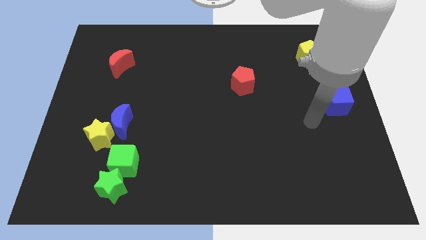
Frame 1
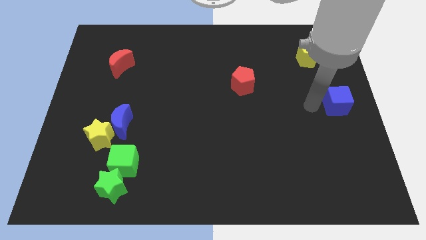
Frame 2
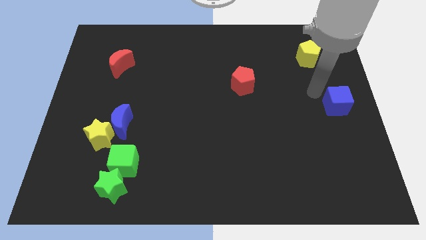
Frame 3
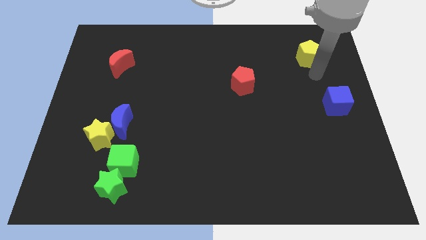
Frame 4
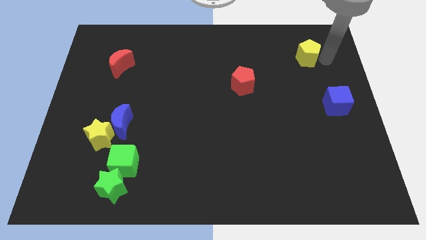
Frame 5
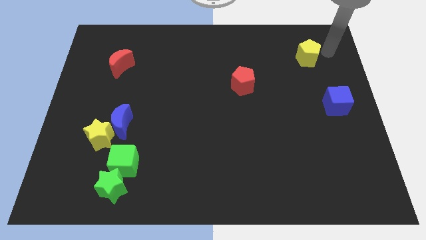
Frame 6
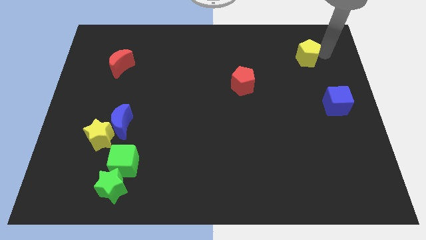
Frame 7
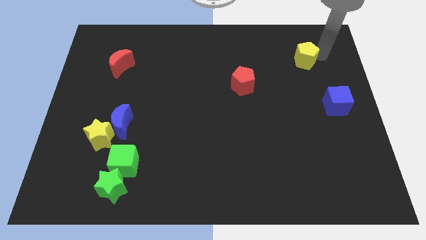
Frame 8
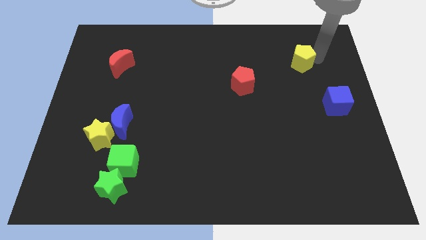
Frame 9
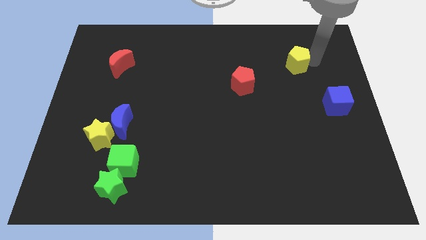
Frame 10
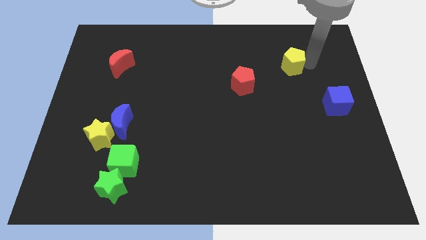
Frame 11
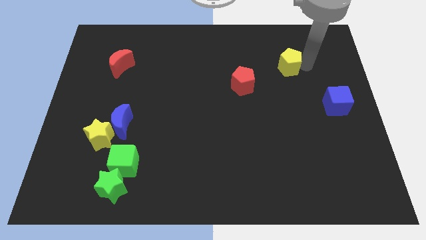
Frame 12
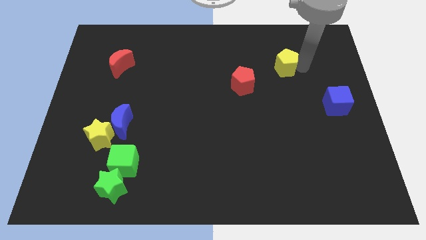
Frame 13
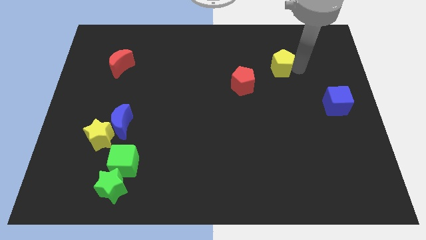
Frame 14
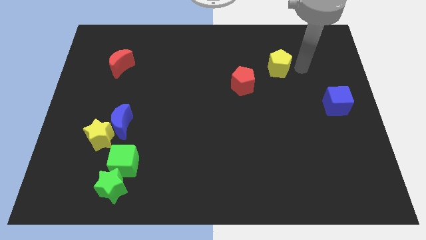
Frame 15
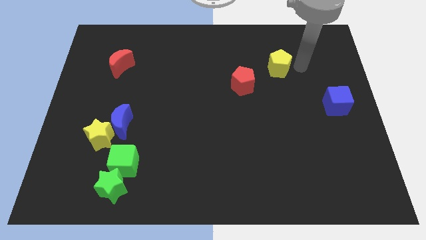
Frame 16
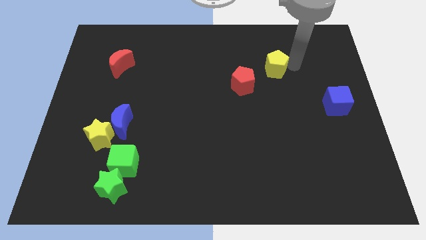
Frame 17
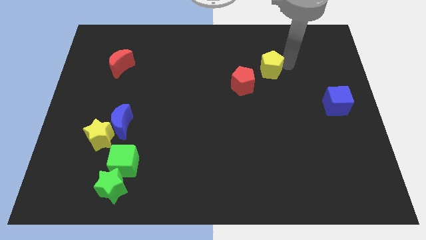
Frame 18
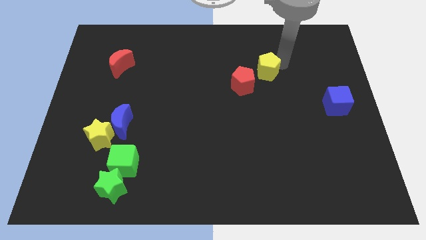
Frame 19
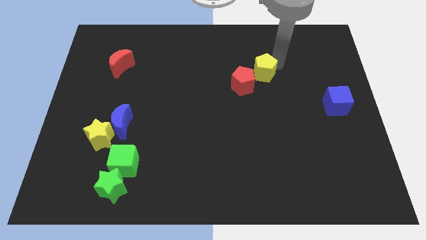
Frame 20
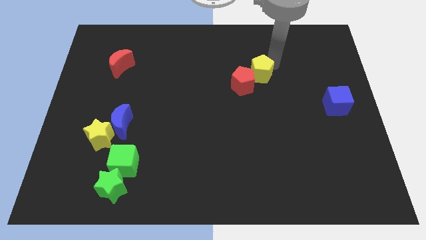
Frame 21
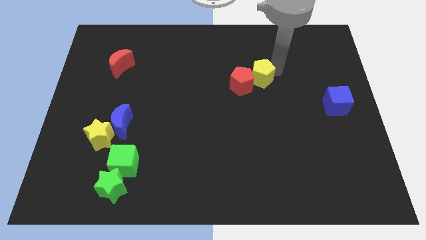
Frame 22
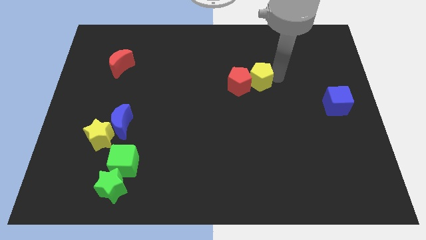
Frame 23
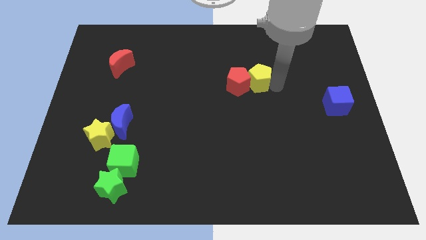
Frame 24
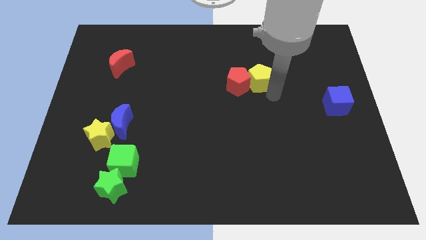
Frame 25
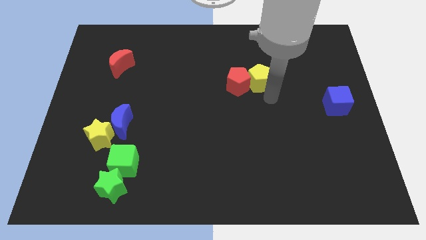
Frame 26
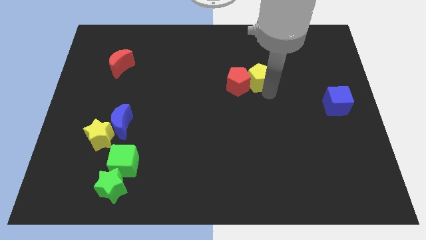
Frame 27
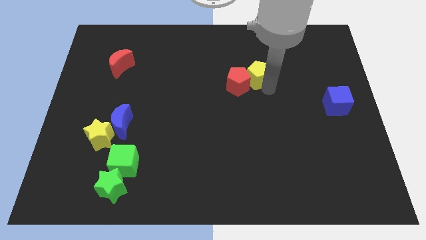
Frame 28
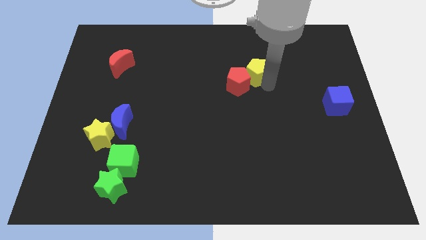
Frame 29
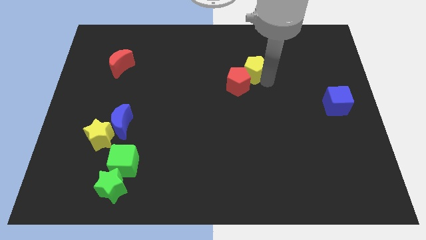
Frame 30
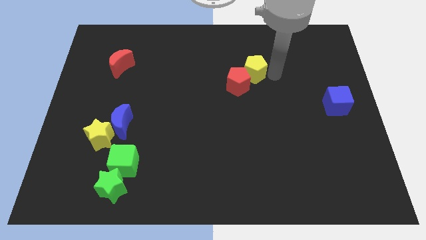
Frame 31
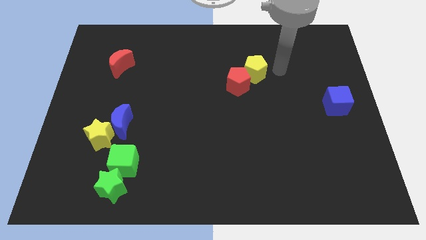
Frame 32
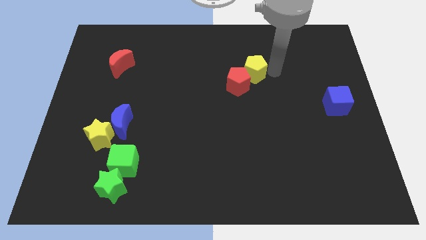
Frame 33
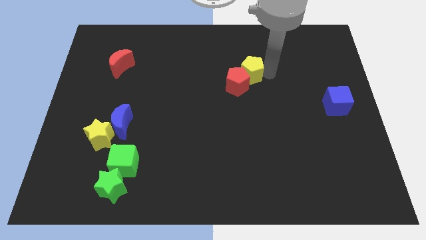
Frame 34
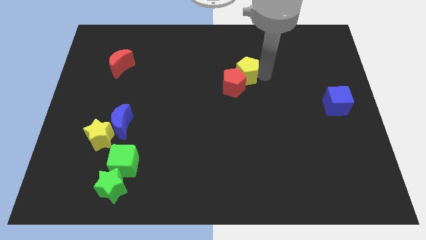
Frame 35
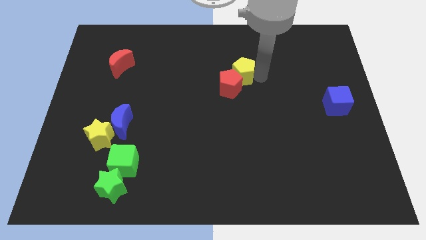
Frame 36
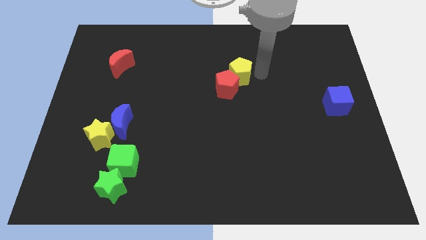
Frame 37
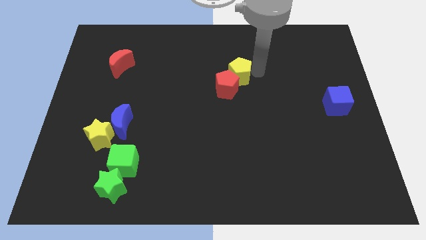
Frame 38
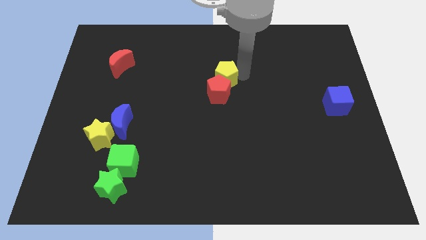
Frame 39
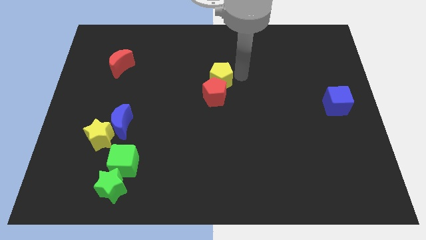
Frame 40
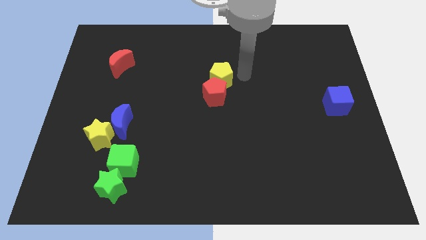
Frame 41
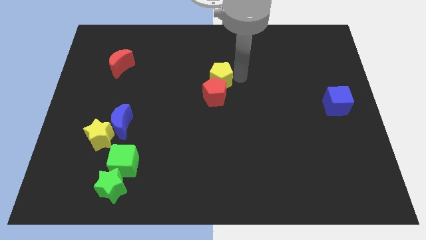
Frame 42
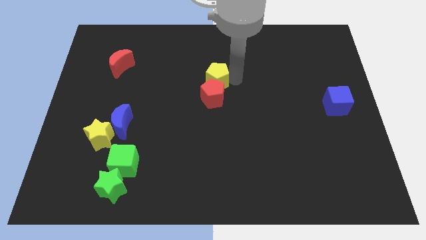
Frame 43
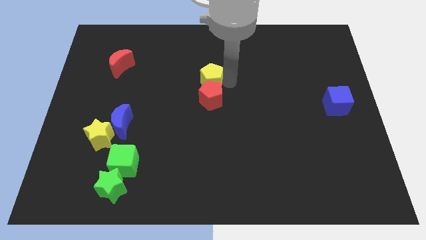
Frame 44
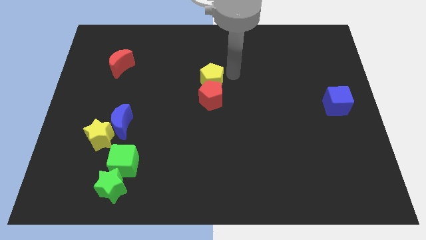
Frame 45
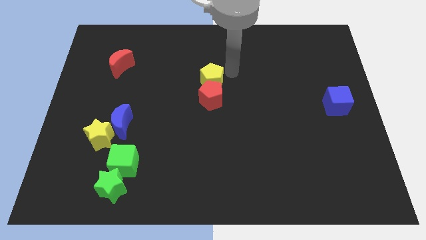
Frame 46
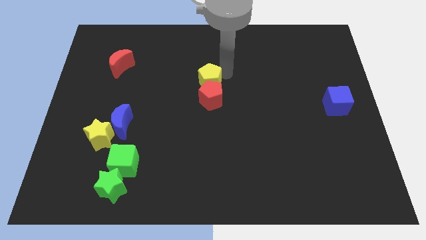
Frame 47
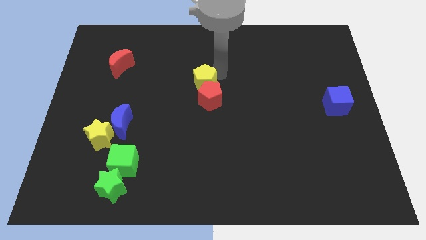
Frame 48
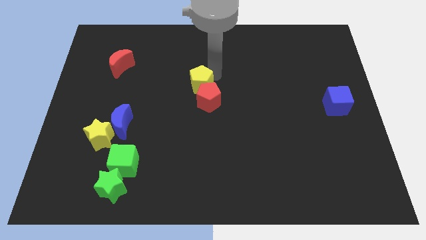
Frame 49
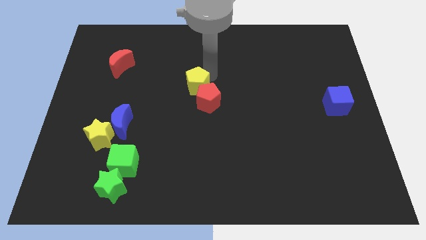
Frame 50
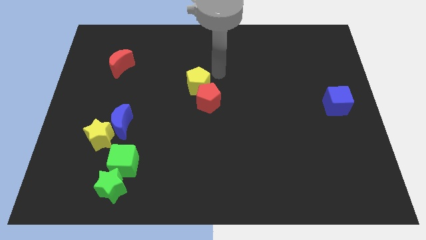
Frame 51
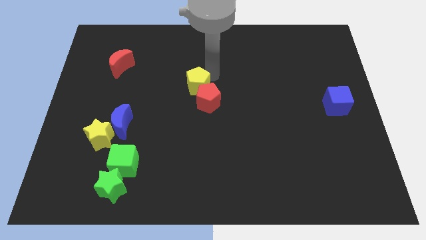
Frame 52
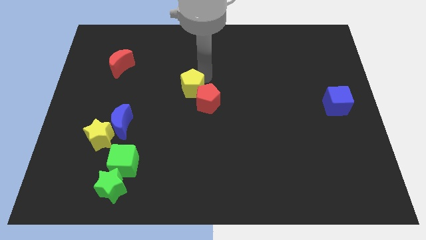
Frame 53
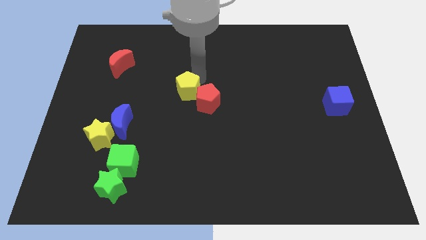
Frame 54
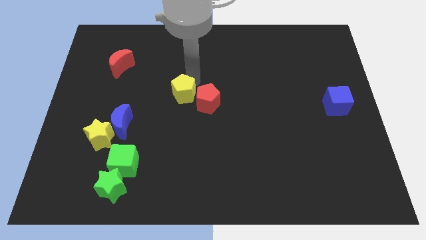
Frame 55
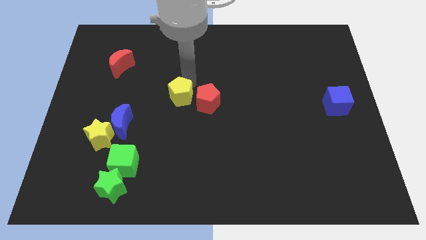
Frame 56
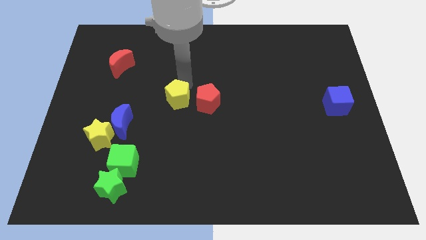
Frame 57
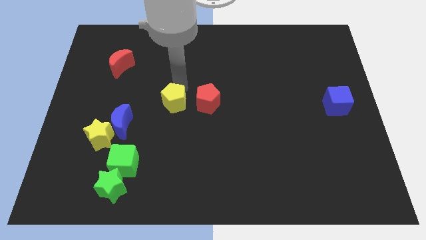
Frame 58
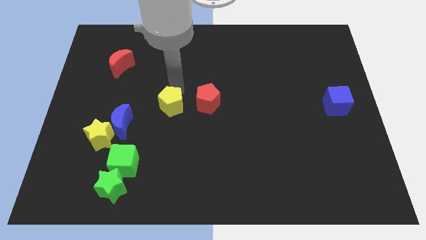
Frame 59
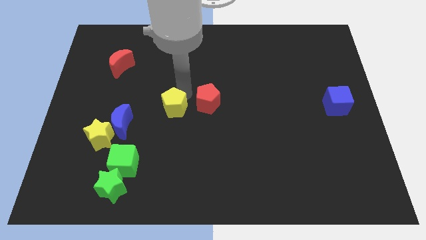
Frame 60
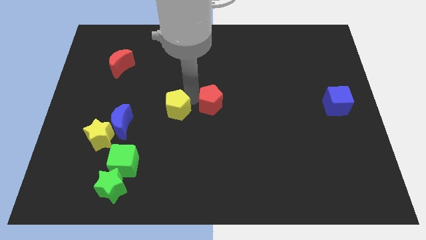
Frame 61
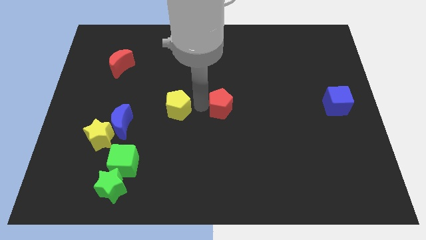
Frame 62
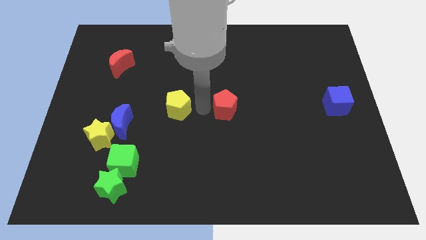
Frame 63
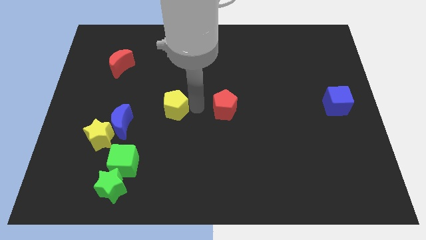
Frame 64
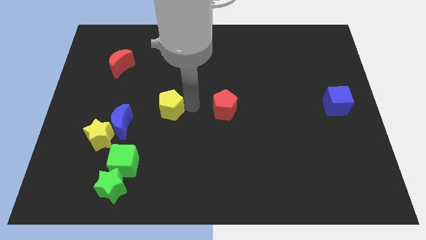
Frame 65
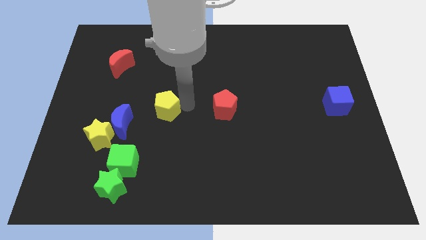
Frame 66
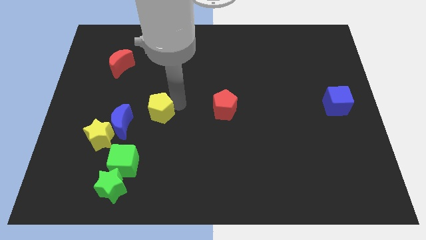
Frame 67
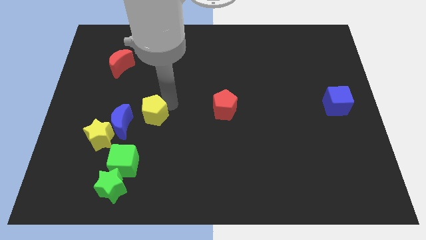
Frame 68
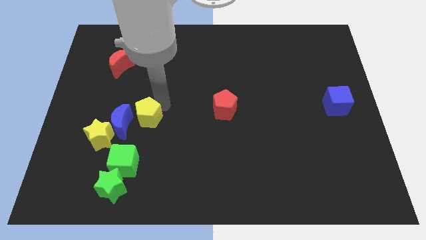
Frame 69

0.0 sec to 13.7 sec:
push the yellow pentagon next to the blue moon

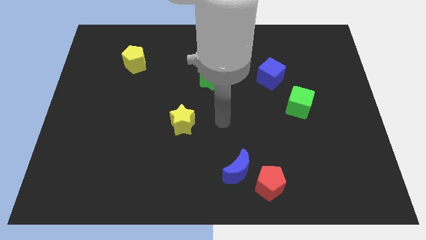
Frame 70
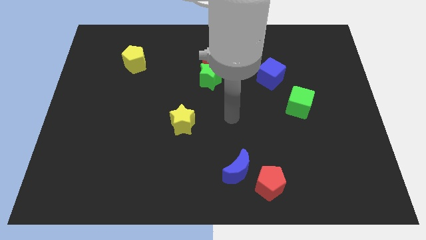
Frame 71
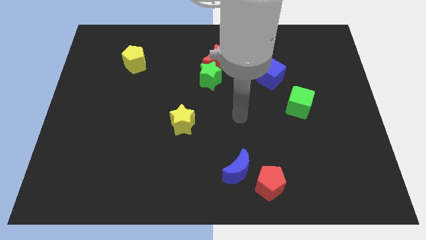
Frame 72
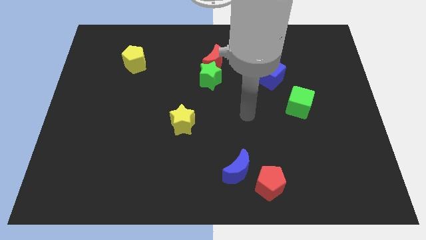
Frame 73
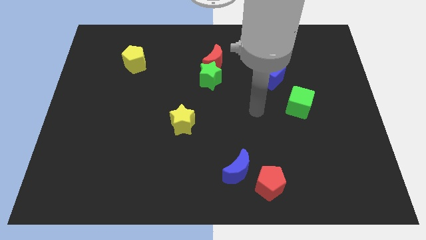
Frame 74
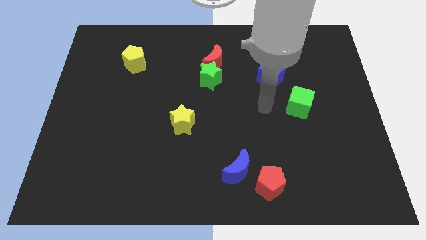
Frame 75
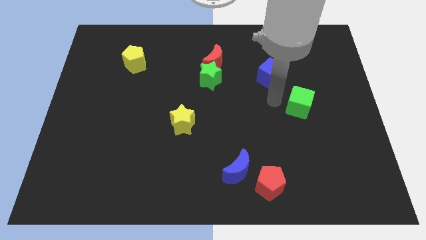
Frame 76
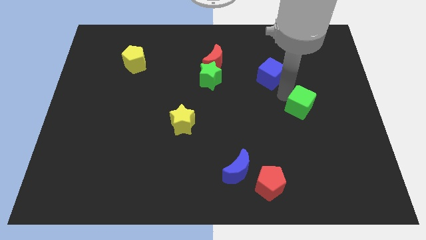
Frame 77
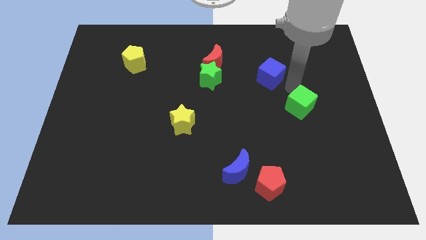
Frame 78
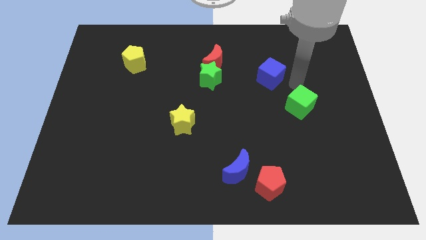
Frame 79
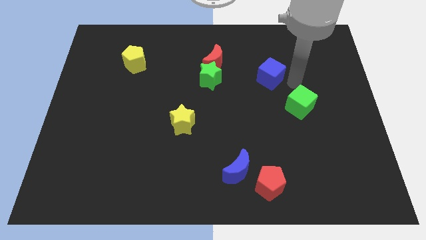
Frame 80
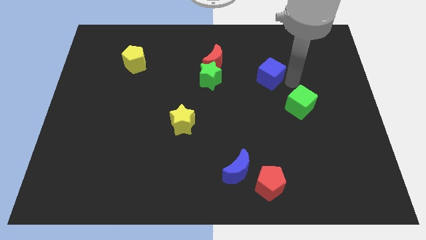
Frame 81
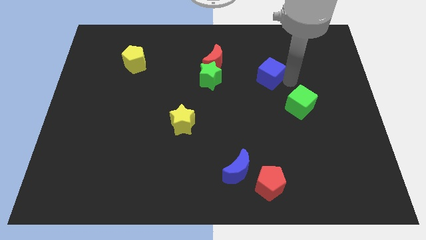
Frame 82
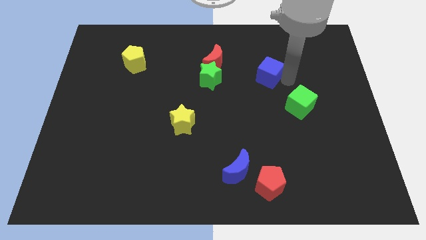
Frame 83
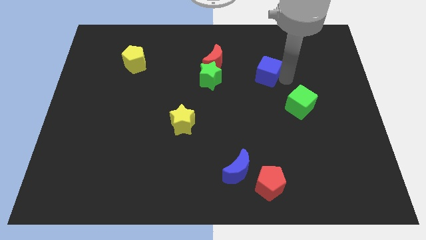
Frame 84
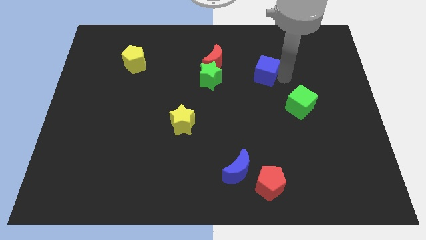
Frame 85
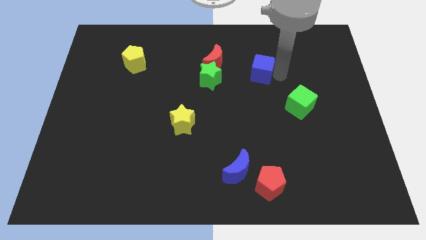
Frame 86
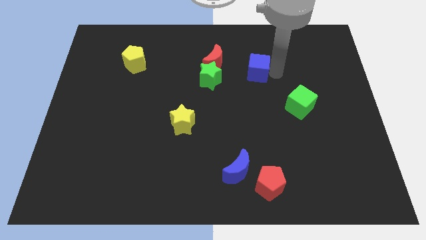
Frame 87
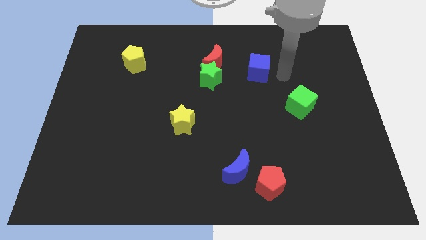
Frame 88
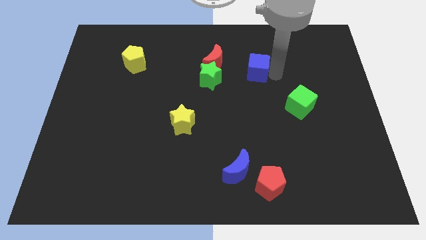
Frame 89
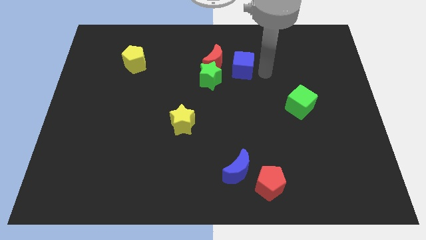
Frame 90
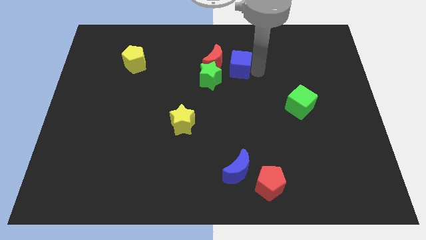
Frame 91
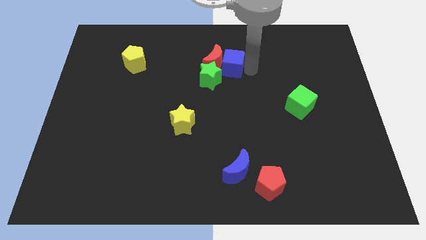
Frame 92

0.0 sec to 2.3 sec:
put the blue cube towards the red moon
